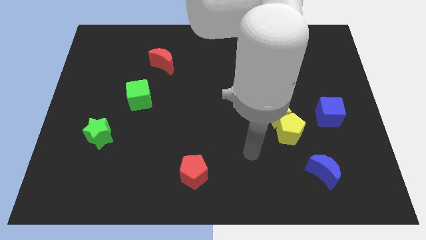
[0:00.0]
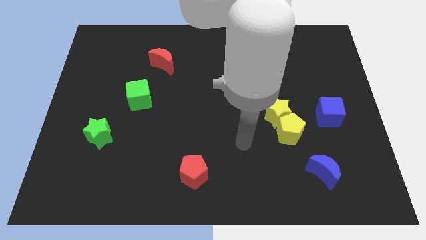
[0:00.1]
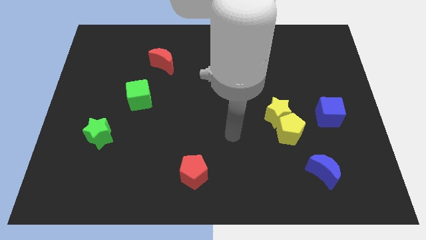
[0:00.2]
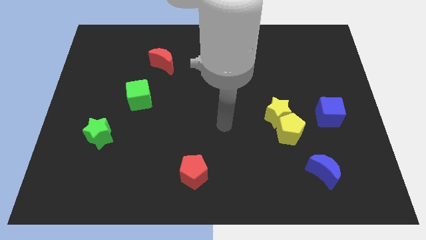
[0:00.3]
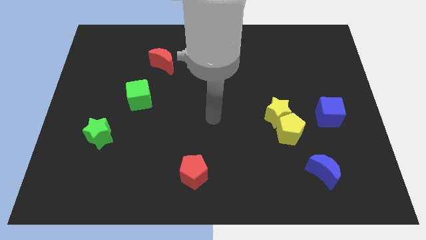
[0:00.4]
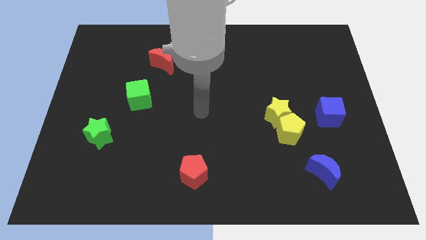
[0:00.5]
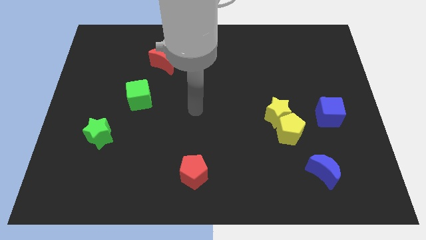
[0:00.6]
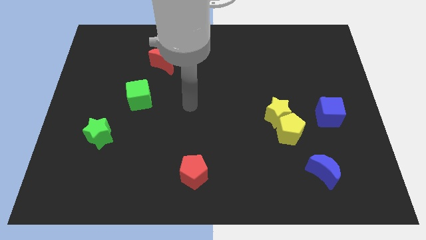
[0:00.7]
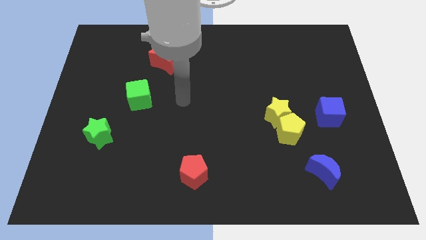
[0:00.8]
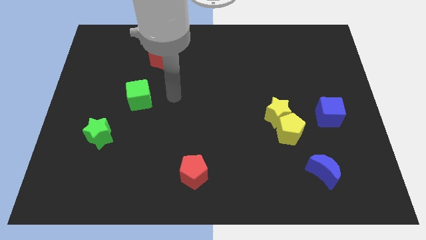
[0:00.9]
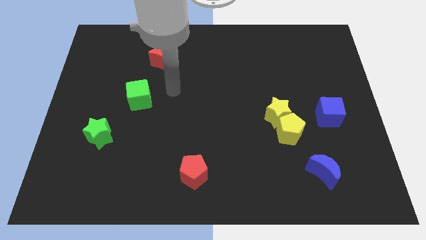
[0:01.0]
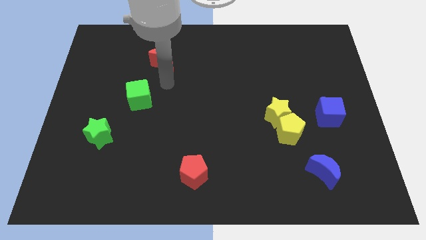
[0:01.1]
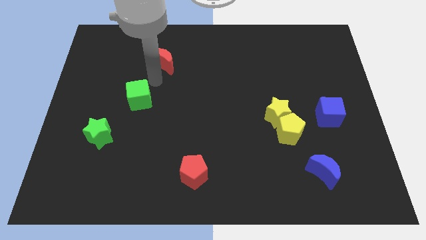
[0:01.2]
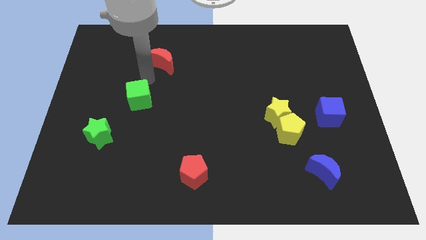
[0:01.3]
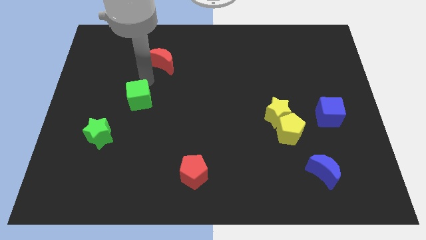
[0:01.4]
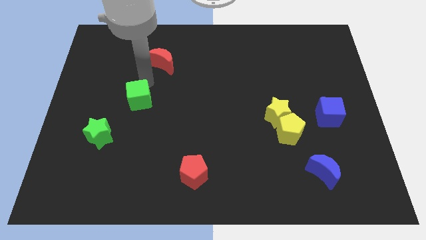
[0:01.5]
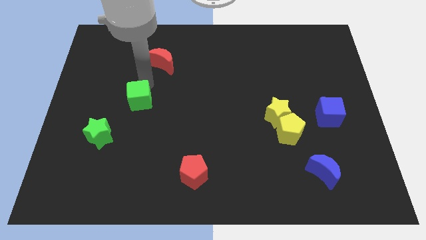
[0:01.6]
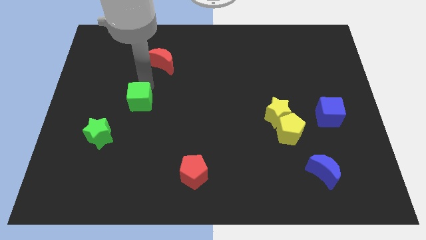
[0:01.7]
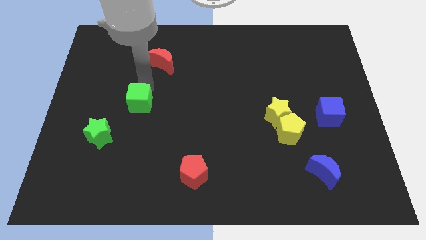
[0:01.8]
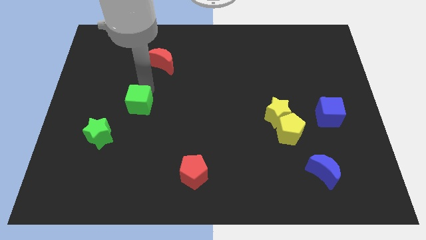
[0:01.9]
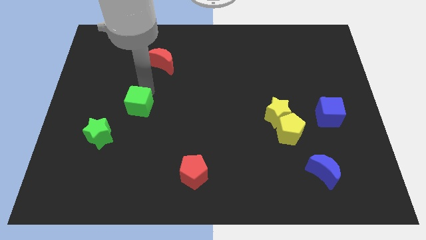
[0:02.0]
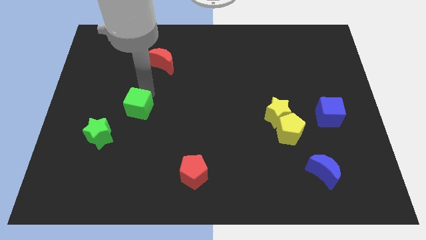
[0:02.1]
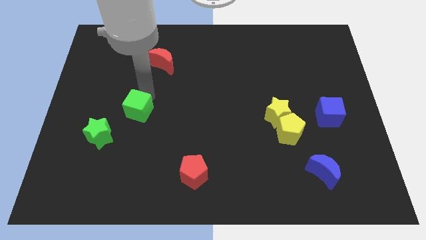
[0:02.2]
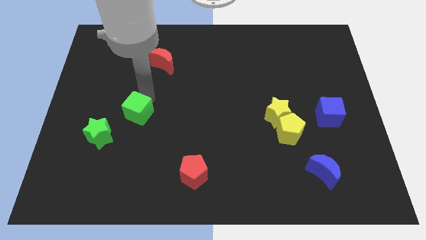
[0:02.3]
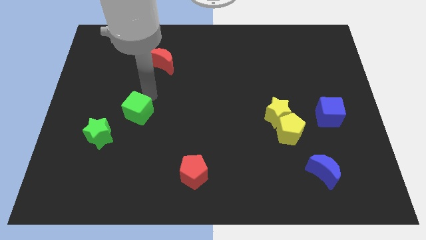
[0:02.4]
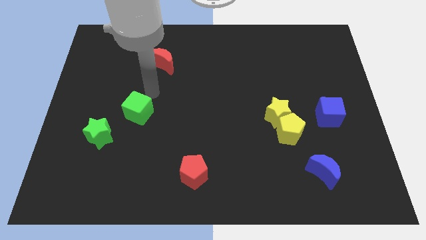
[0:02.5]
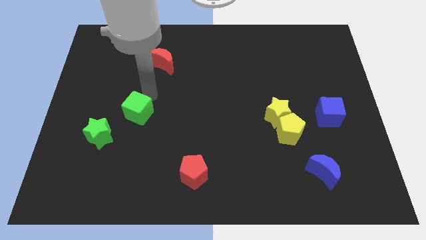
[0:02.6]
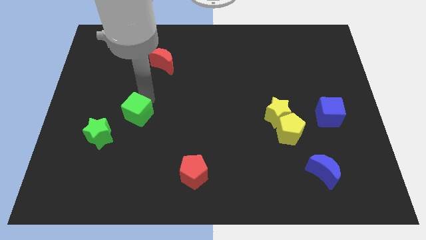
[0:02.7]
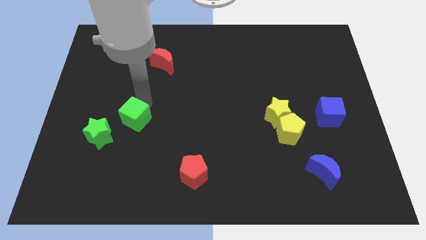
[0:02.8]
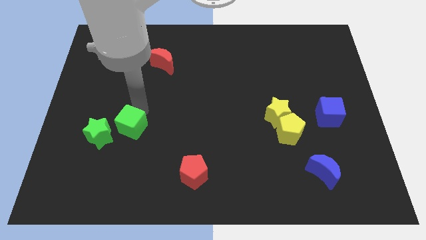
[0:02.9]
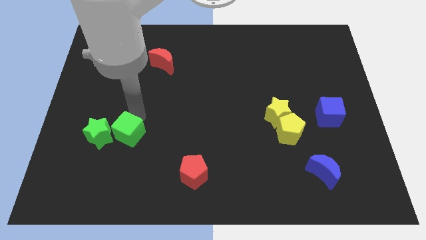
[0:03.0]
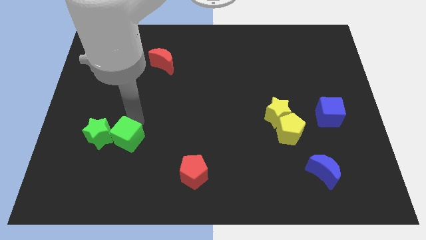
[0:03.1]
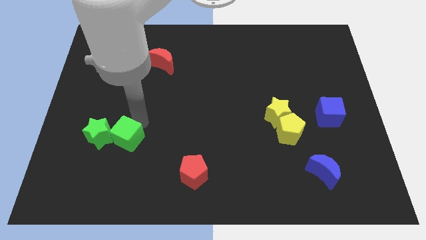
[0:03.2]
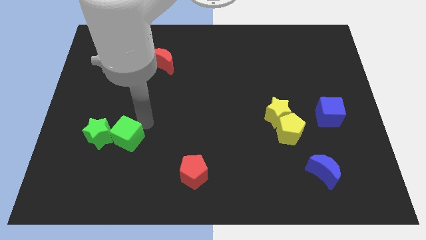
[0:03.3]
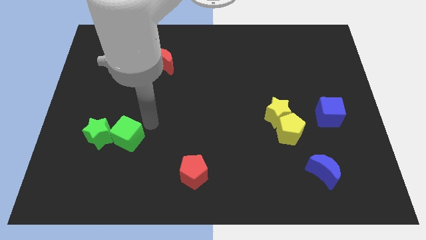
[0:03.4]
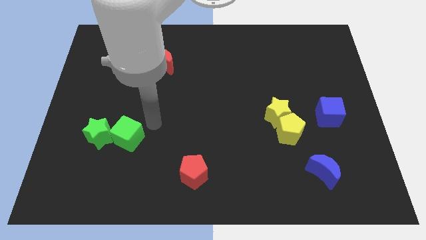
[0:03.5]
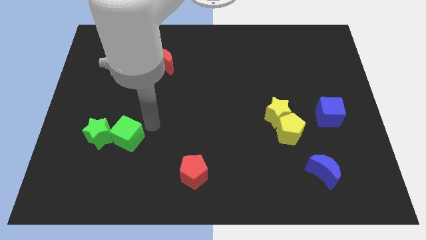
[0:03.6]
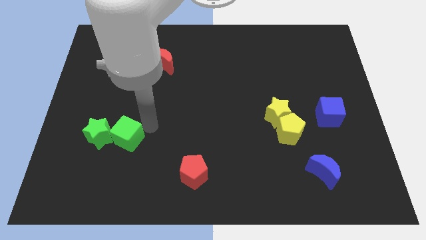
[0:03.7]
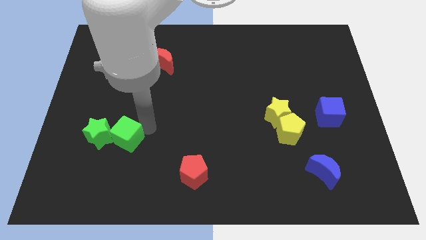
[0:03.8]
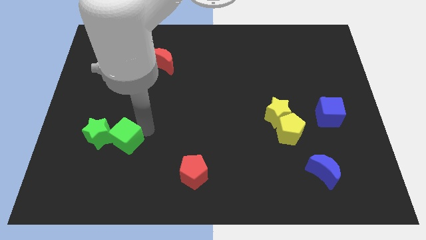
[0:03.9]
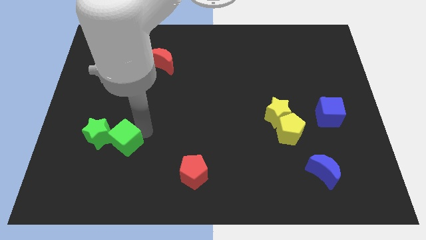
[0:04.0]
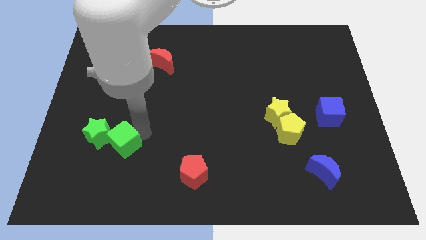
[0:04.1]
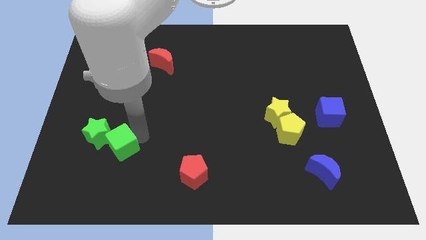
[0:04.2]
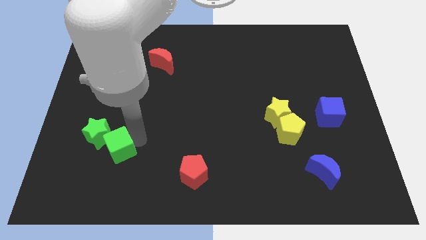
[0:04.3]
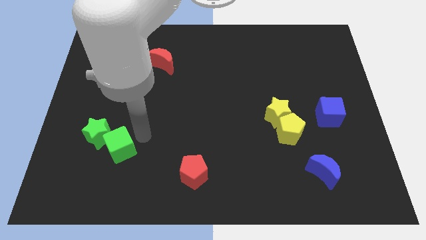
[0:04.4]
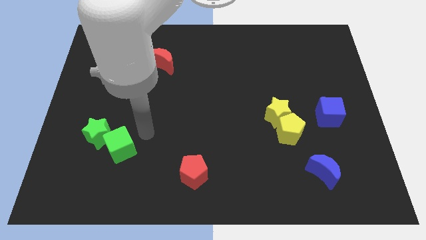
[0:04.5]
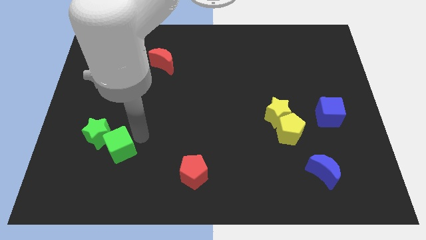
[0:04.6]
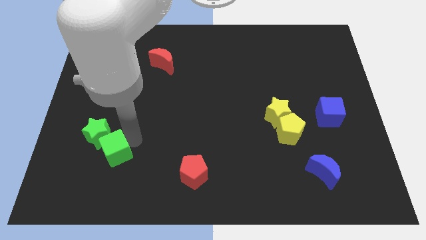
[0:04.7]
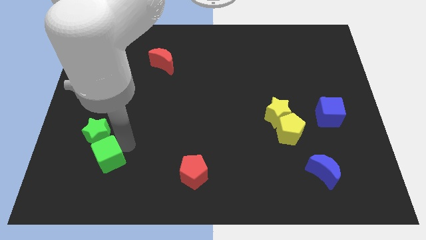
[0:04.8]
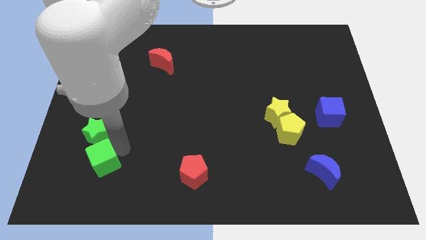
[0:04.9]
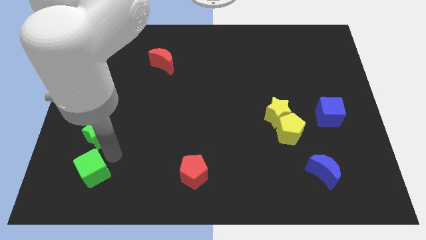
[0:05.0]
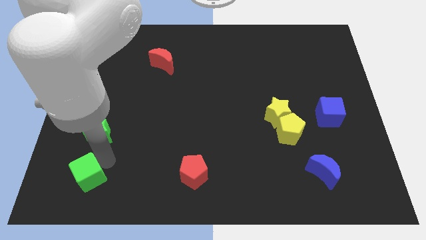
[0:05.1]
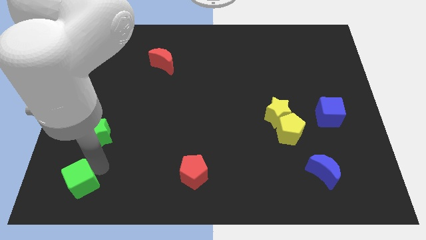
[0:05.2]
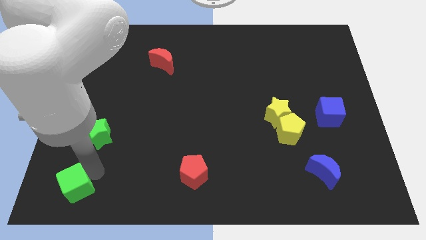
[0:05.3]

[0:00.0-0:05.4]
slide the green cube to the bottom left

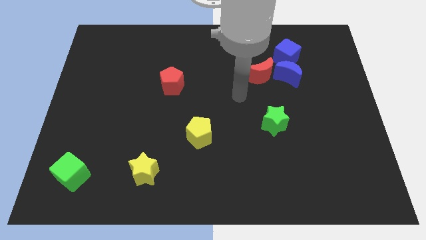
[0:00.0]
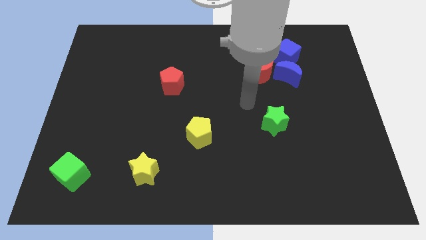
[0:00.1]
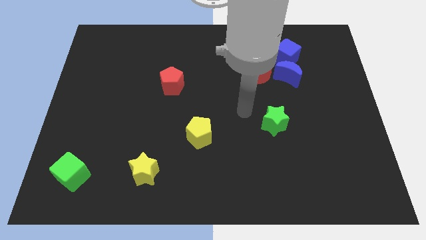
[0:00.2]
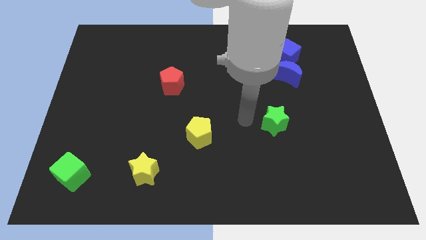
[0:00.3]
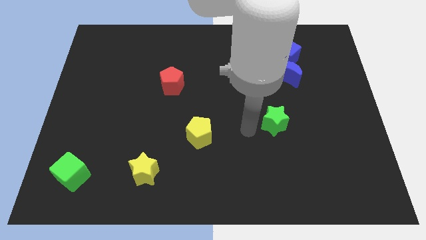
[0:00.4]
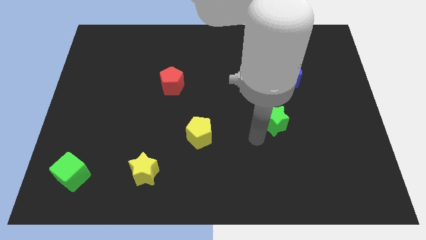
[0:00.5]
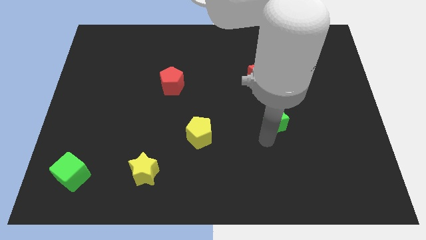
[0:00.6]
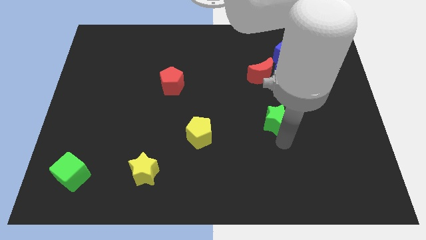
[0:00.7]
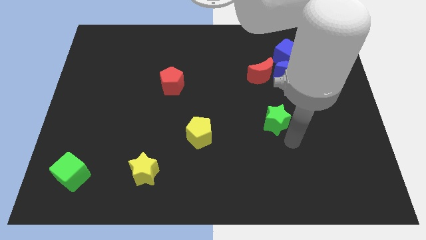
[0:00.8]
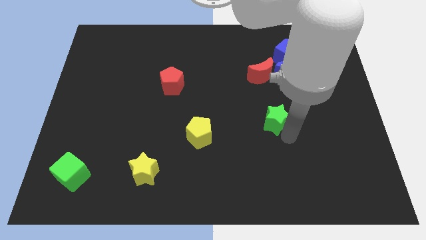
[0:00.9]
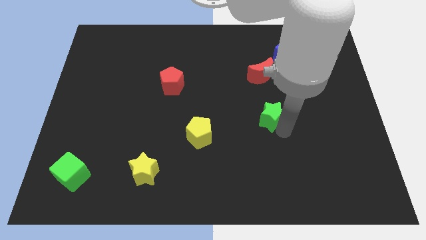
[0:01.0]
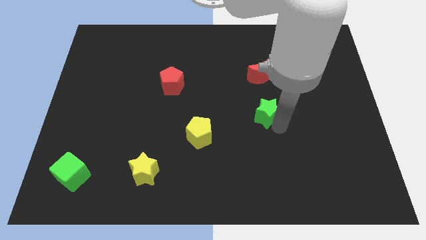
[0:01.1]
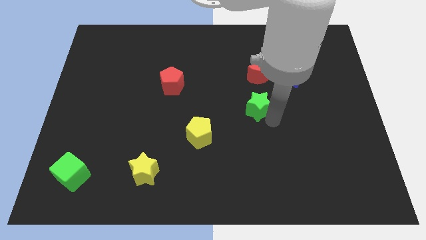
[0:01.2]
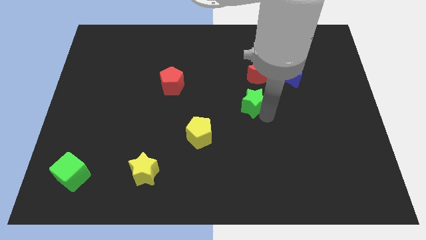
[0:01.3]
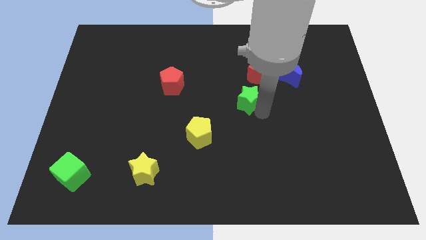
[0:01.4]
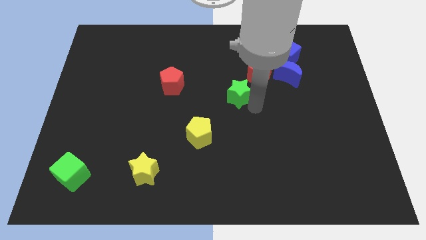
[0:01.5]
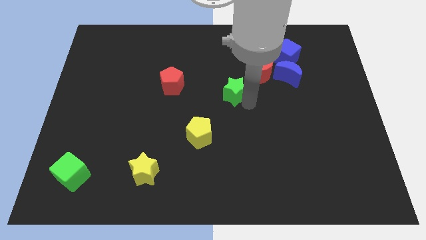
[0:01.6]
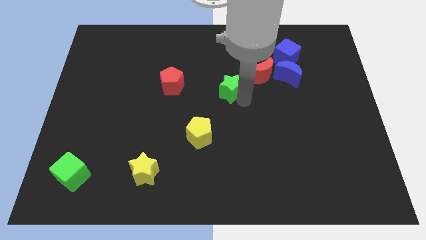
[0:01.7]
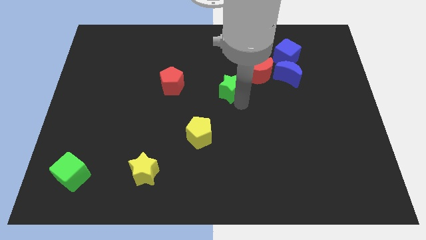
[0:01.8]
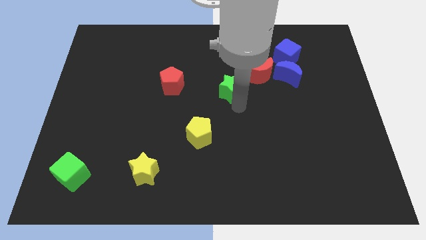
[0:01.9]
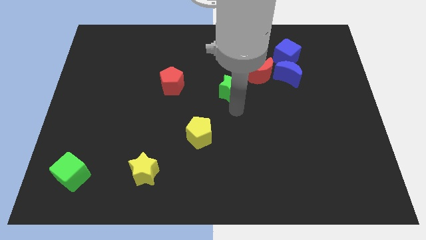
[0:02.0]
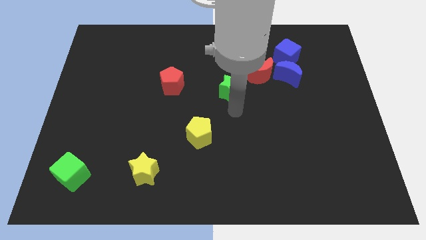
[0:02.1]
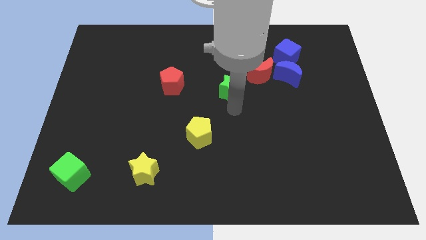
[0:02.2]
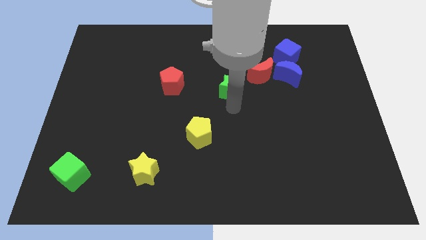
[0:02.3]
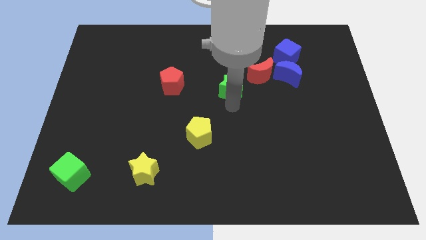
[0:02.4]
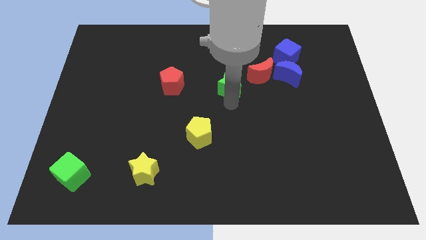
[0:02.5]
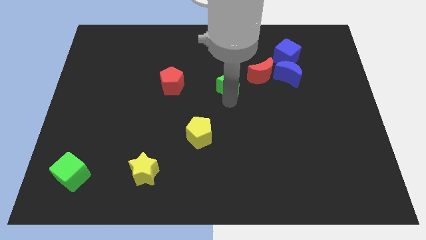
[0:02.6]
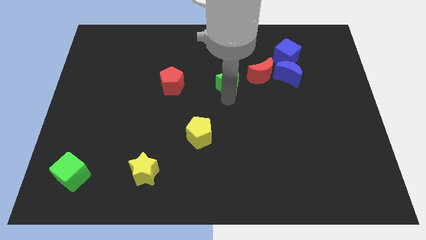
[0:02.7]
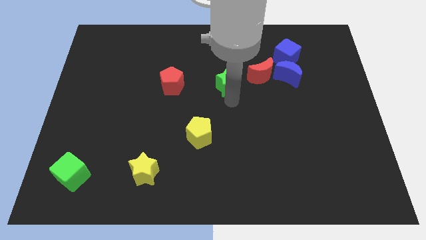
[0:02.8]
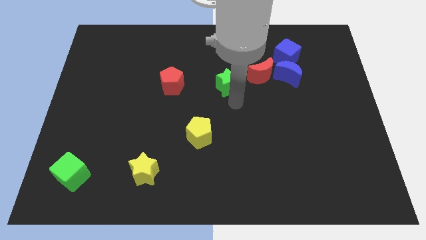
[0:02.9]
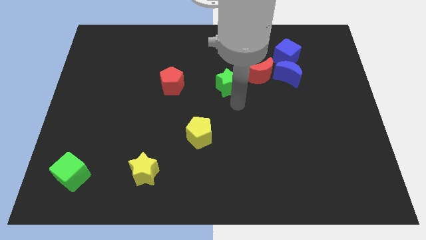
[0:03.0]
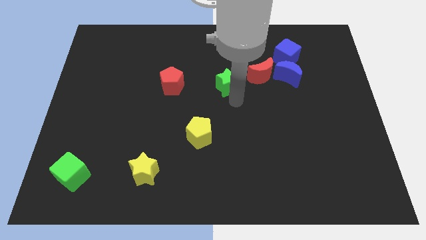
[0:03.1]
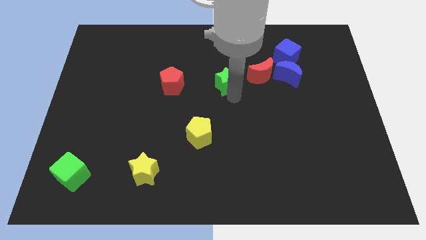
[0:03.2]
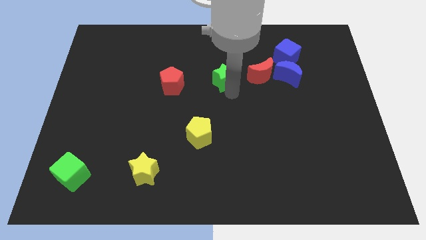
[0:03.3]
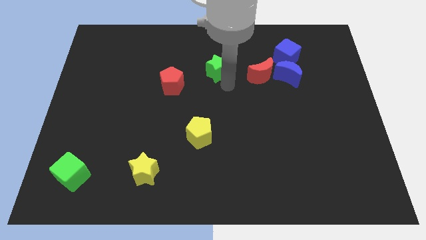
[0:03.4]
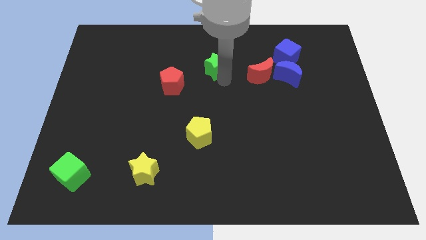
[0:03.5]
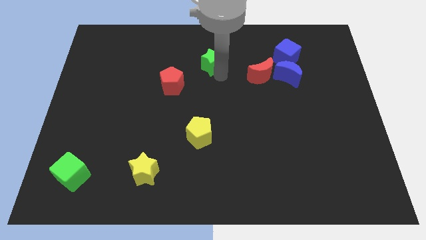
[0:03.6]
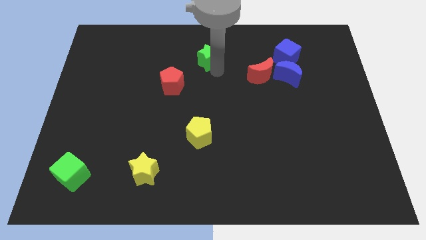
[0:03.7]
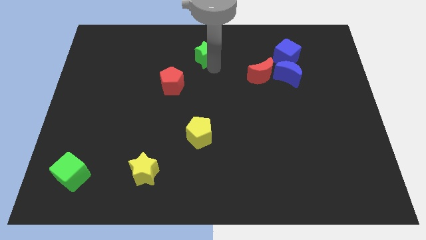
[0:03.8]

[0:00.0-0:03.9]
move the green star to the top
